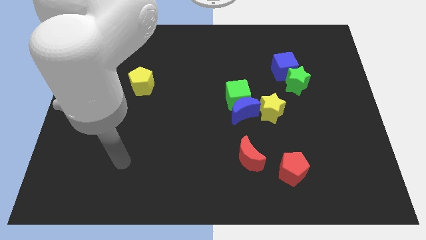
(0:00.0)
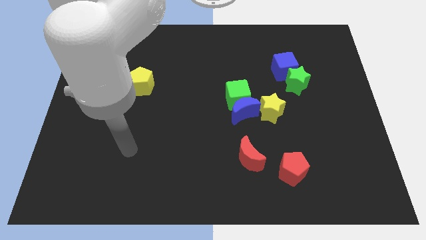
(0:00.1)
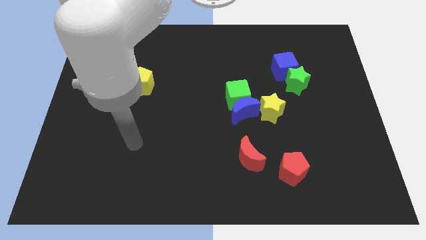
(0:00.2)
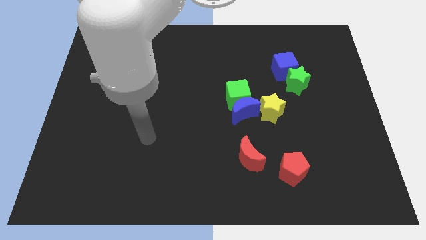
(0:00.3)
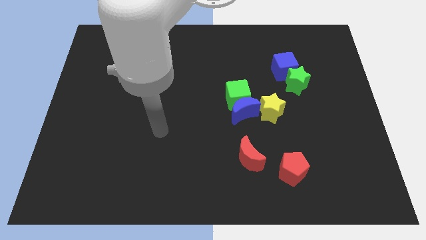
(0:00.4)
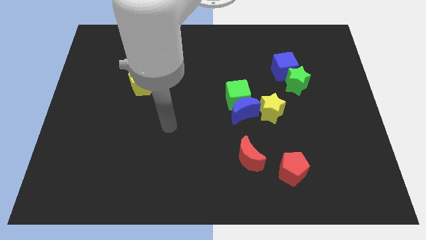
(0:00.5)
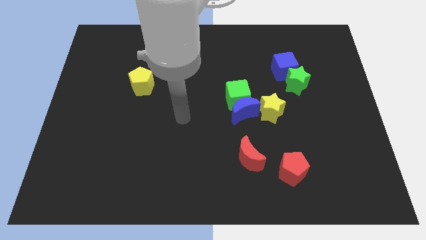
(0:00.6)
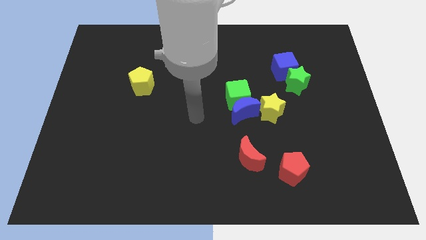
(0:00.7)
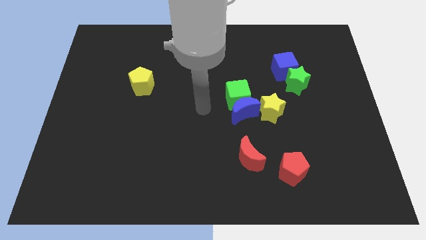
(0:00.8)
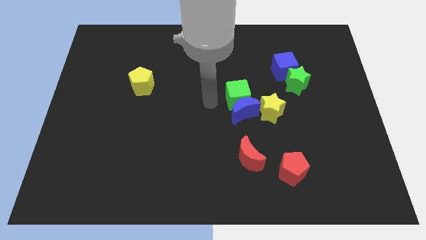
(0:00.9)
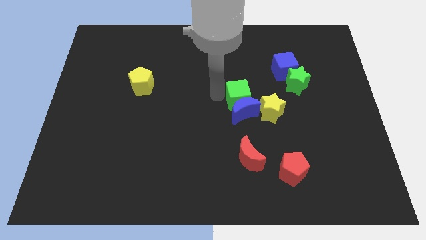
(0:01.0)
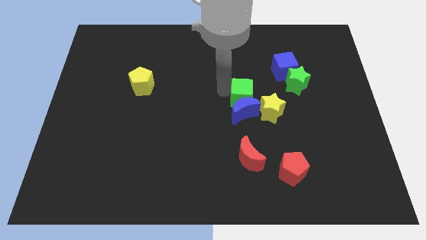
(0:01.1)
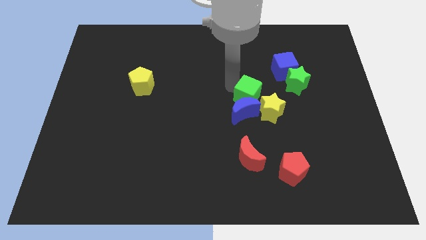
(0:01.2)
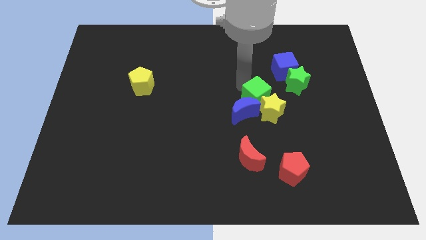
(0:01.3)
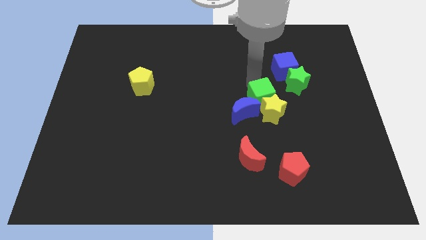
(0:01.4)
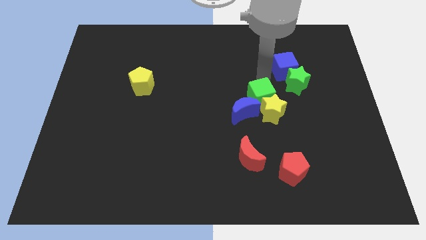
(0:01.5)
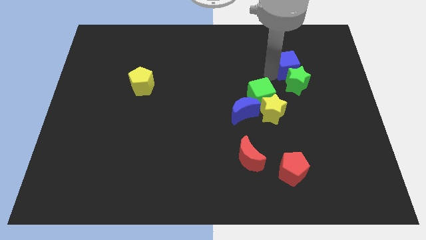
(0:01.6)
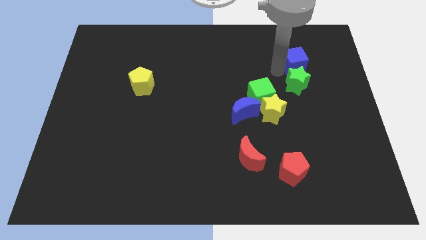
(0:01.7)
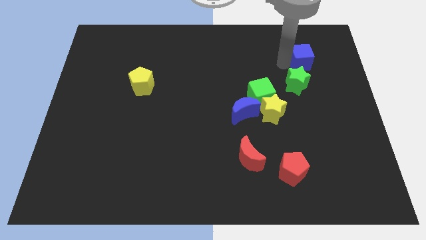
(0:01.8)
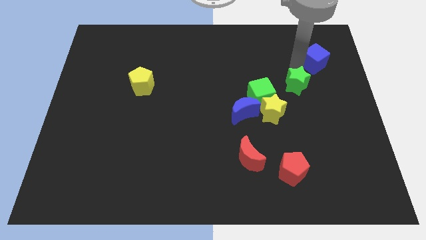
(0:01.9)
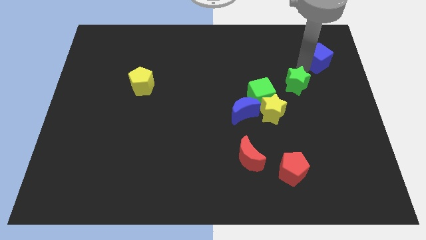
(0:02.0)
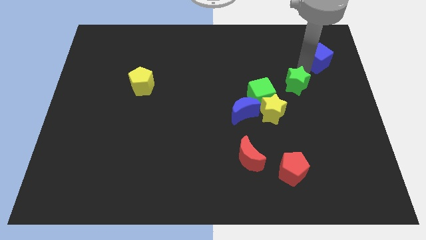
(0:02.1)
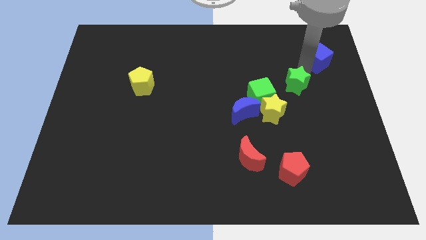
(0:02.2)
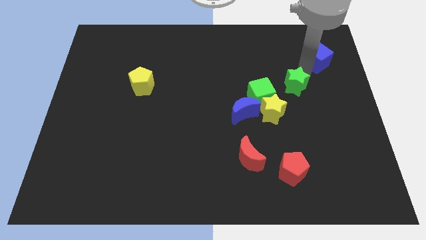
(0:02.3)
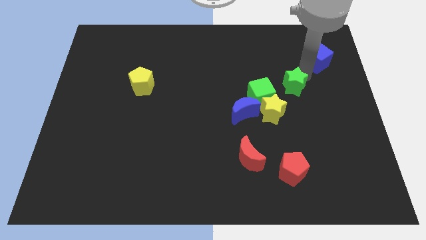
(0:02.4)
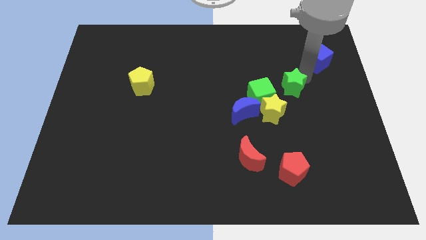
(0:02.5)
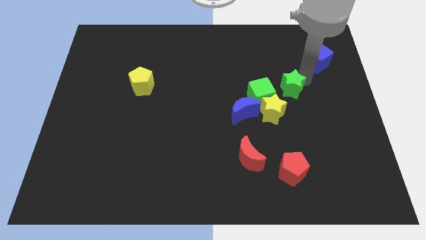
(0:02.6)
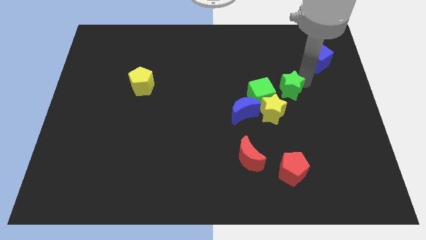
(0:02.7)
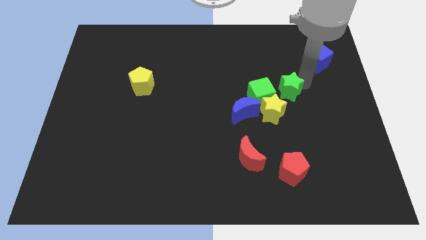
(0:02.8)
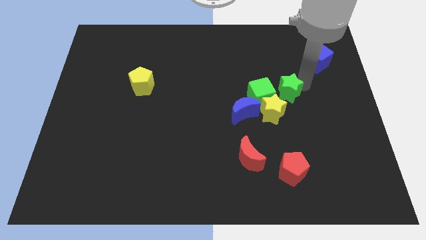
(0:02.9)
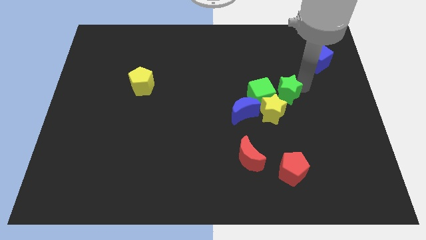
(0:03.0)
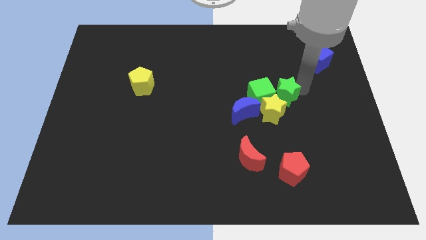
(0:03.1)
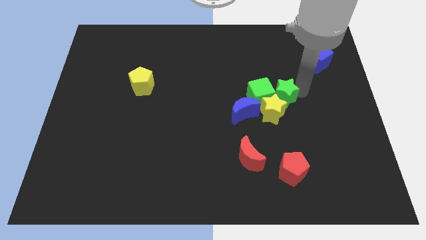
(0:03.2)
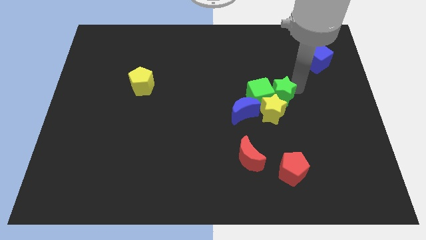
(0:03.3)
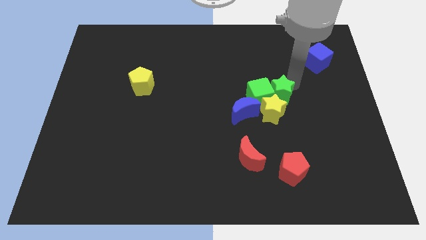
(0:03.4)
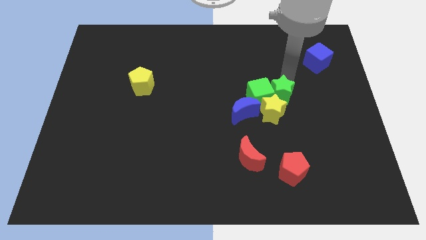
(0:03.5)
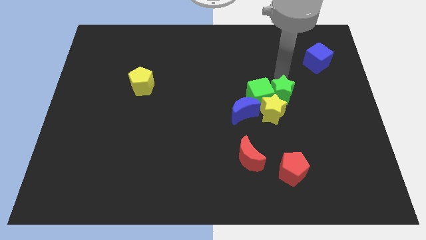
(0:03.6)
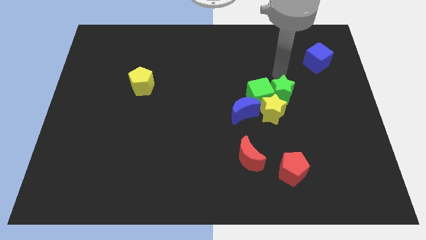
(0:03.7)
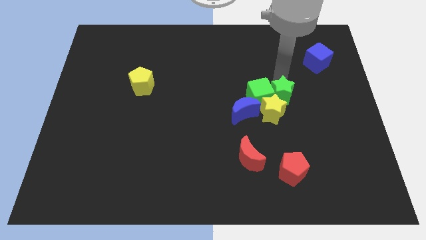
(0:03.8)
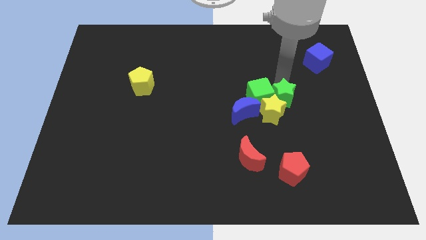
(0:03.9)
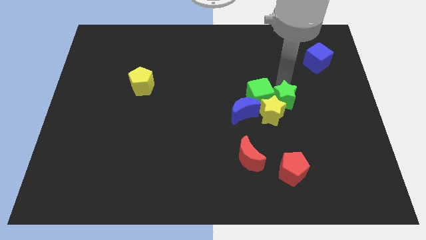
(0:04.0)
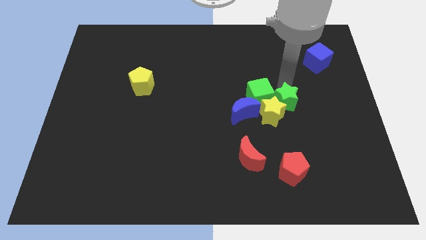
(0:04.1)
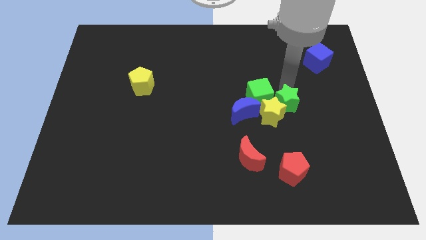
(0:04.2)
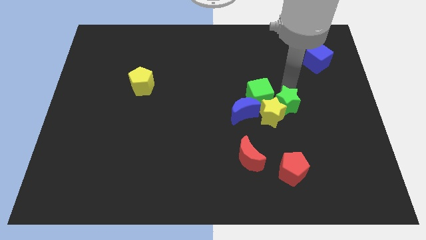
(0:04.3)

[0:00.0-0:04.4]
push the green star slightly downwards and left

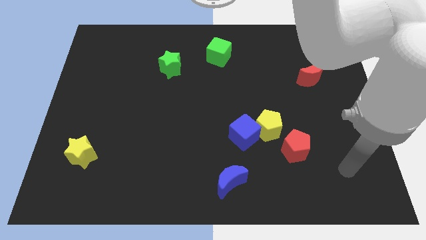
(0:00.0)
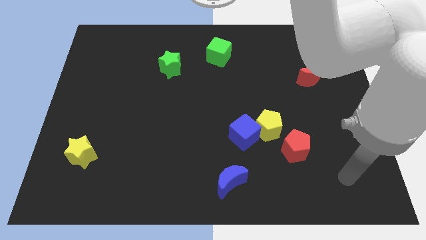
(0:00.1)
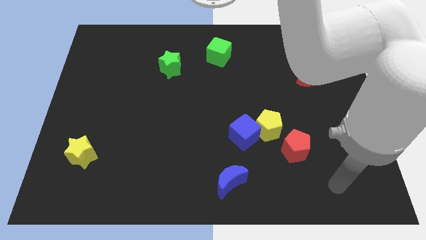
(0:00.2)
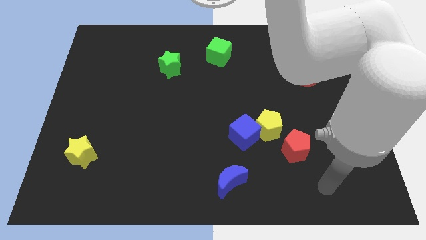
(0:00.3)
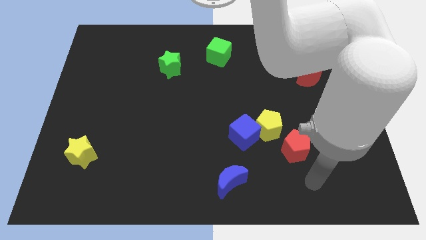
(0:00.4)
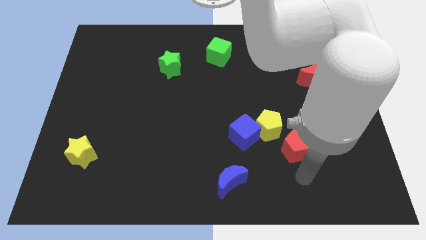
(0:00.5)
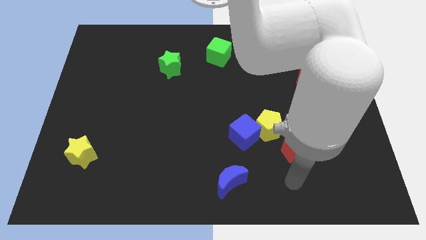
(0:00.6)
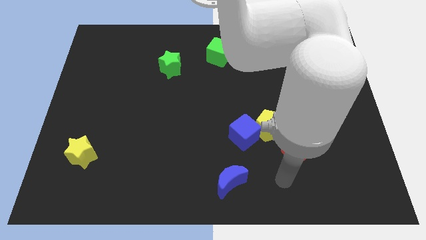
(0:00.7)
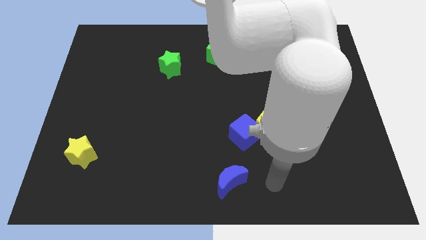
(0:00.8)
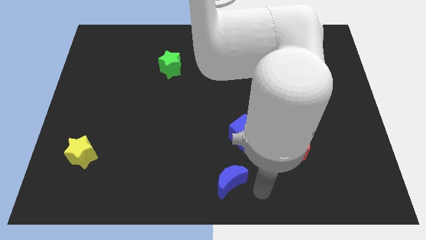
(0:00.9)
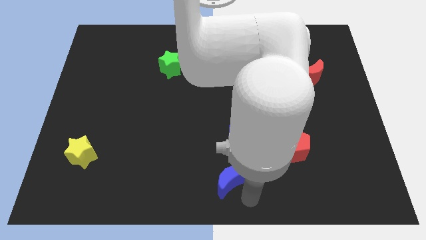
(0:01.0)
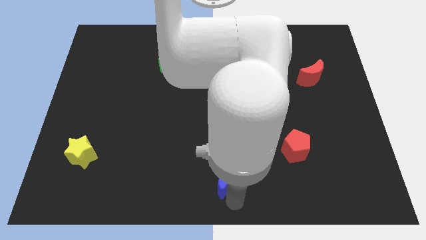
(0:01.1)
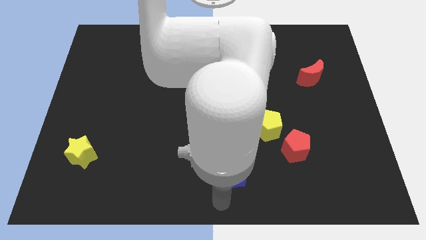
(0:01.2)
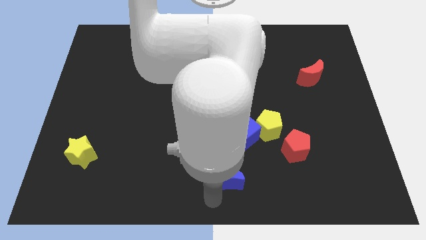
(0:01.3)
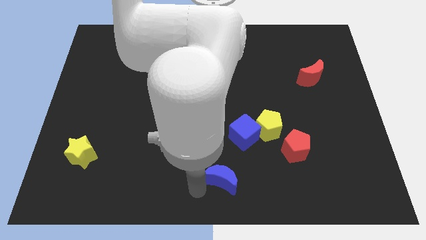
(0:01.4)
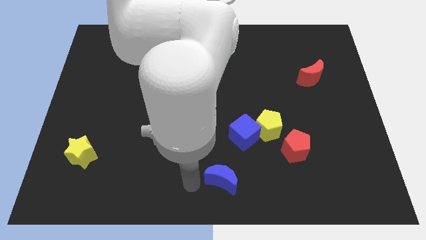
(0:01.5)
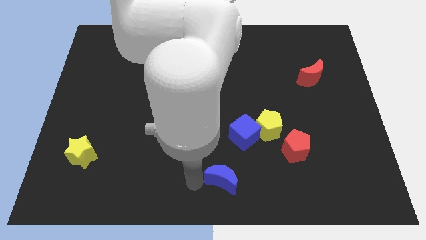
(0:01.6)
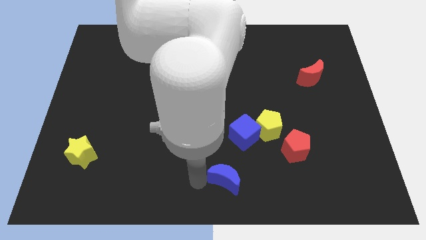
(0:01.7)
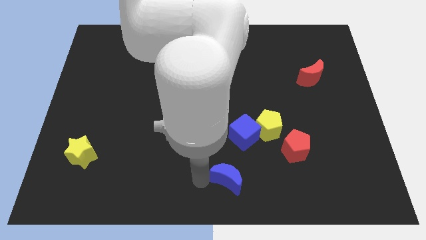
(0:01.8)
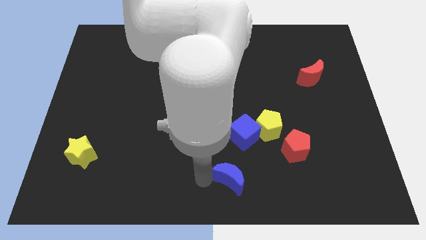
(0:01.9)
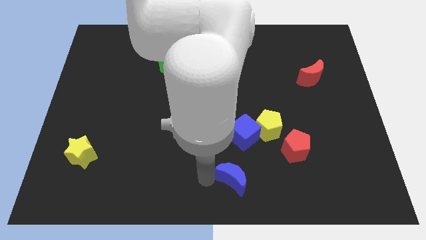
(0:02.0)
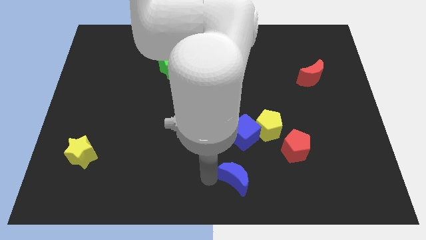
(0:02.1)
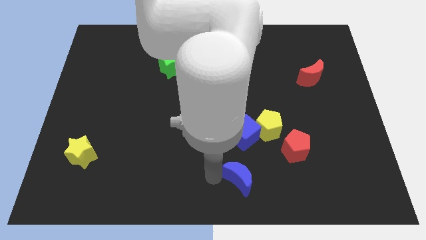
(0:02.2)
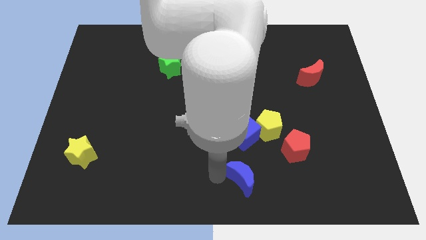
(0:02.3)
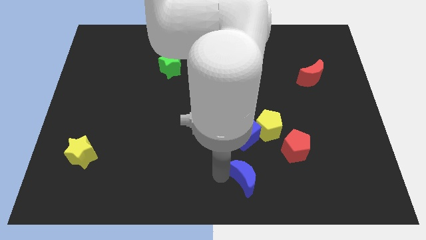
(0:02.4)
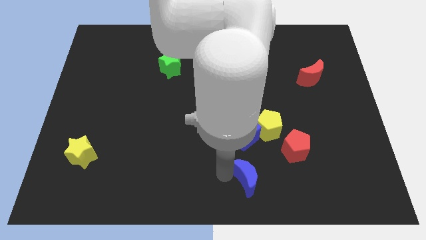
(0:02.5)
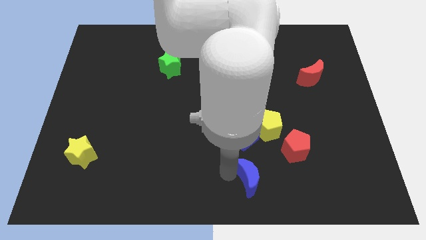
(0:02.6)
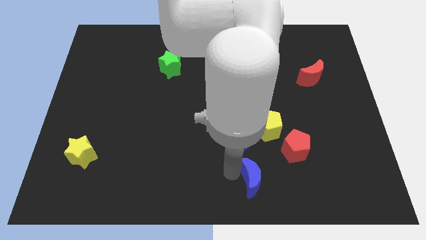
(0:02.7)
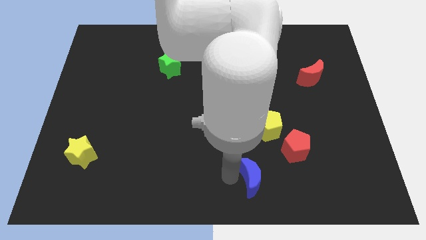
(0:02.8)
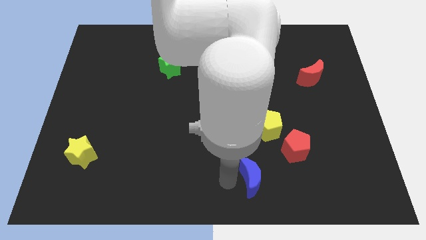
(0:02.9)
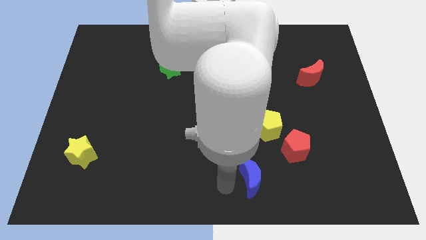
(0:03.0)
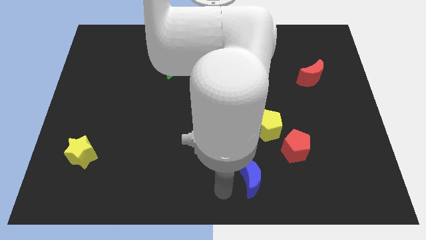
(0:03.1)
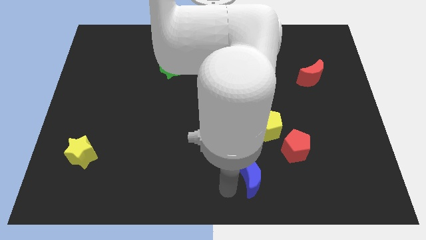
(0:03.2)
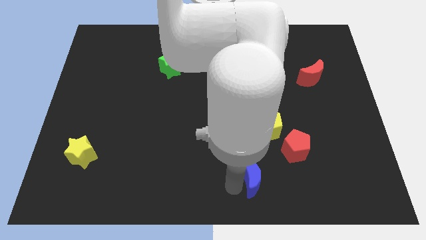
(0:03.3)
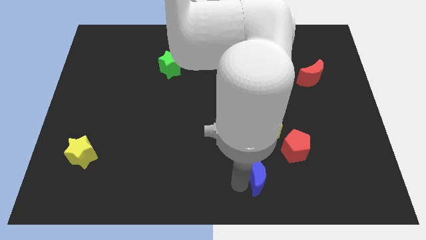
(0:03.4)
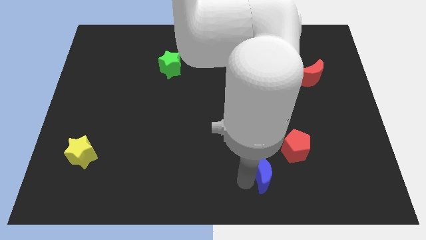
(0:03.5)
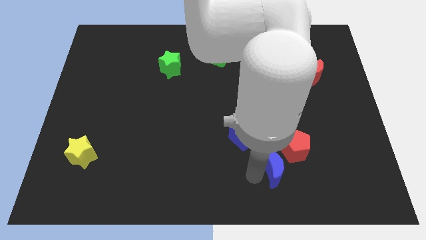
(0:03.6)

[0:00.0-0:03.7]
push the blue moon a little up and right

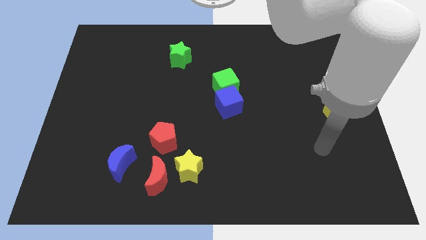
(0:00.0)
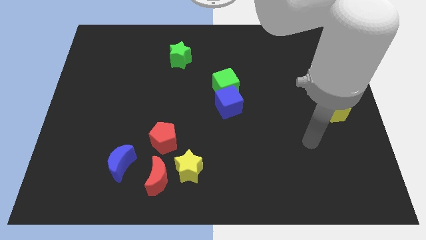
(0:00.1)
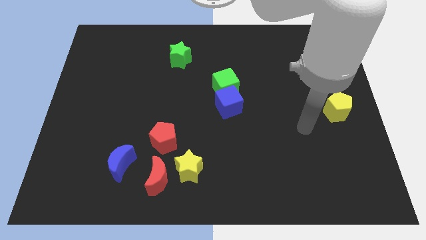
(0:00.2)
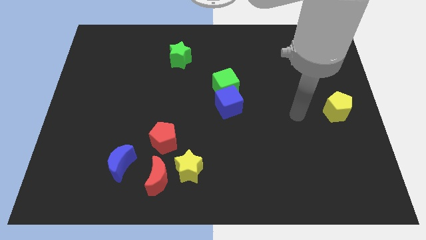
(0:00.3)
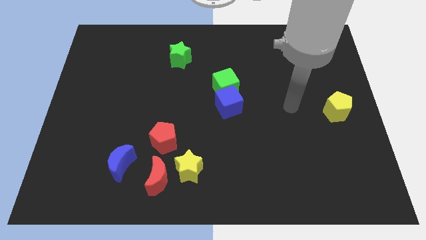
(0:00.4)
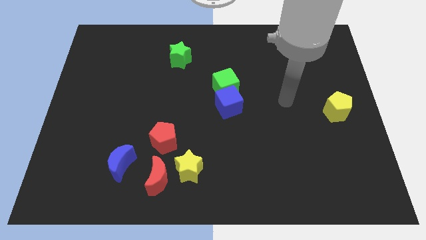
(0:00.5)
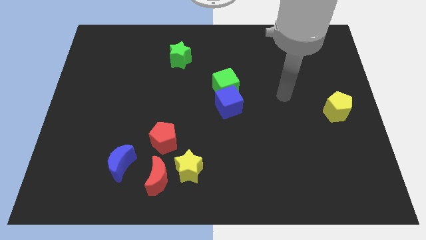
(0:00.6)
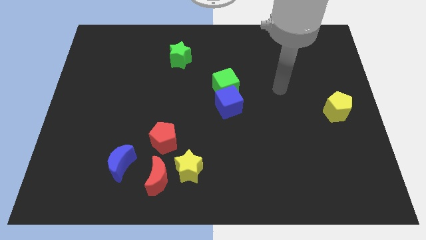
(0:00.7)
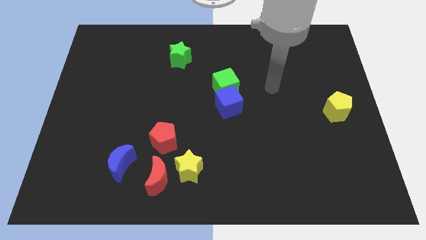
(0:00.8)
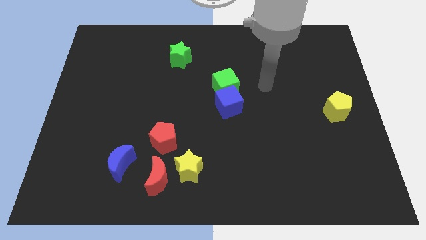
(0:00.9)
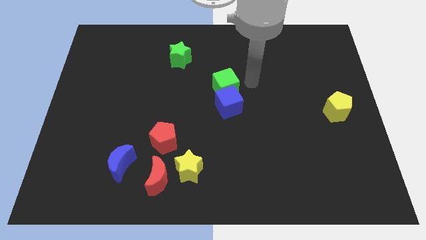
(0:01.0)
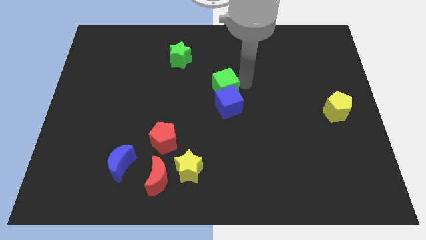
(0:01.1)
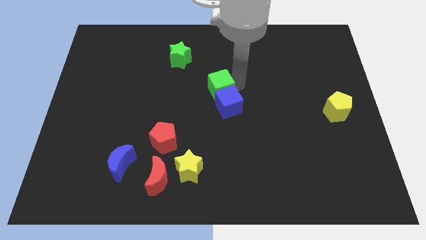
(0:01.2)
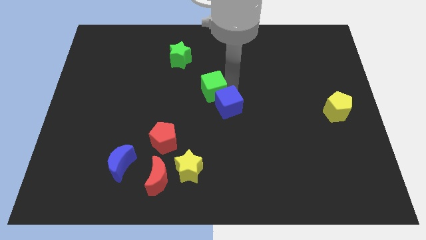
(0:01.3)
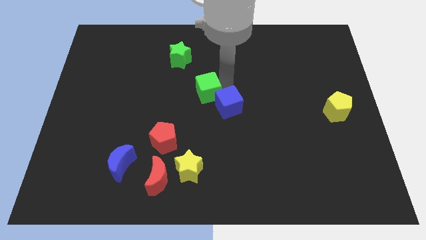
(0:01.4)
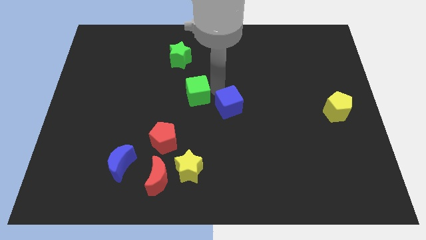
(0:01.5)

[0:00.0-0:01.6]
slide the green cube to the left a little bit
